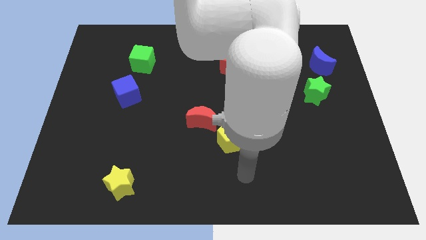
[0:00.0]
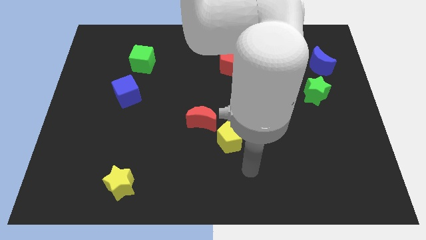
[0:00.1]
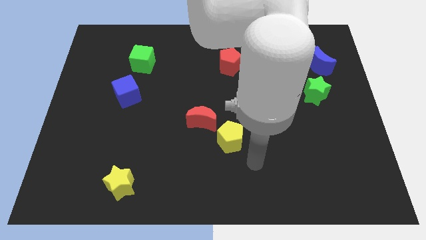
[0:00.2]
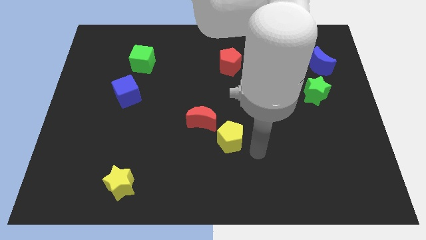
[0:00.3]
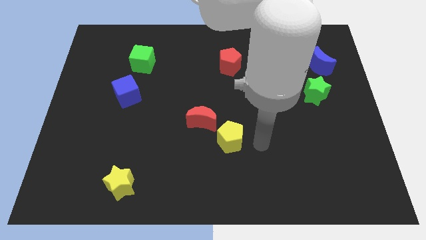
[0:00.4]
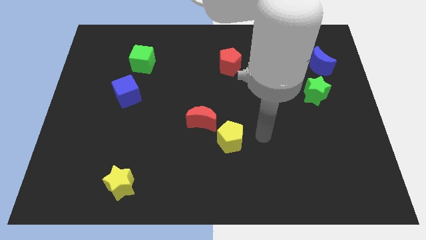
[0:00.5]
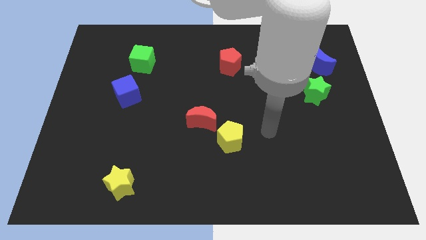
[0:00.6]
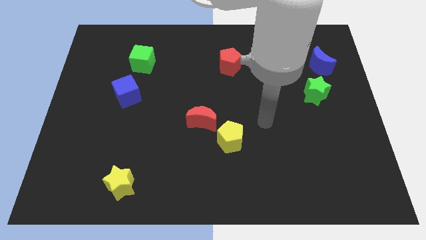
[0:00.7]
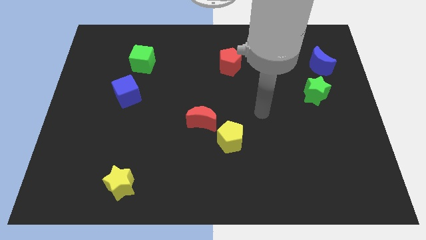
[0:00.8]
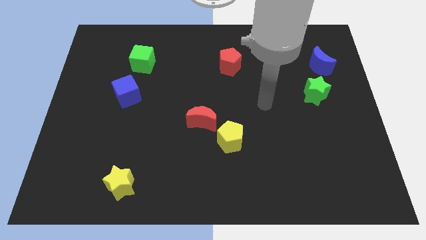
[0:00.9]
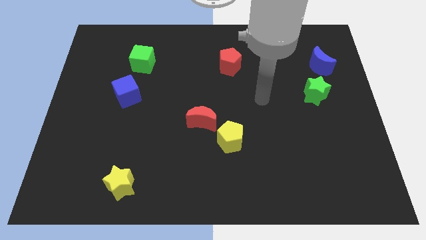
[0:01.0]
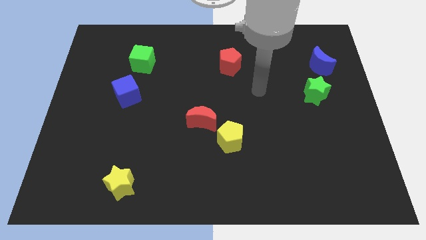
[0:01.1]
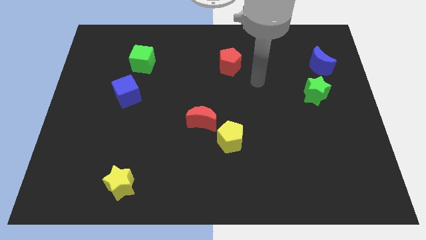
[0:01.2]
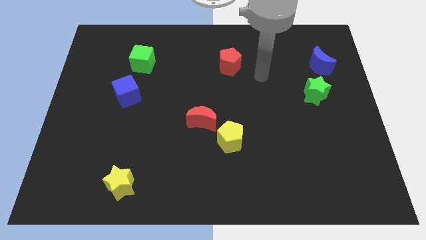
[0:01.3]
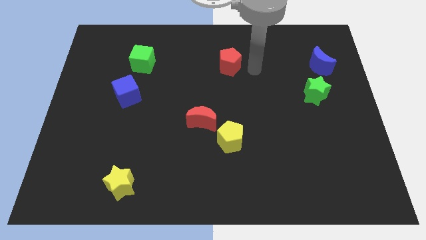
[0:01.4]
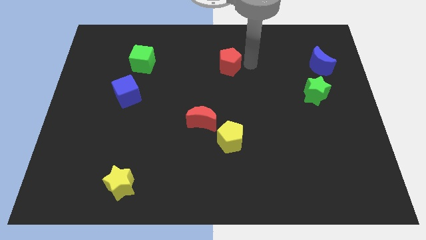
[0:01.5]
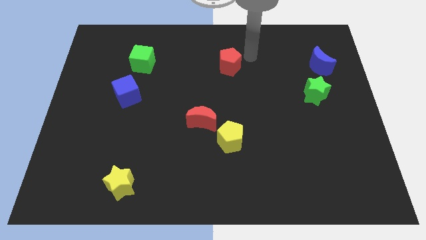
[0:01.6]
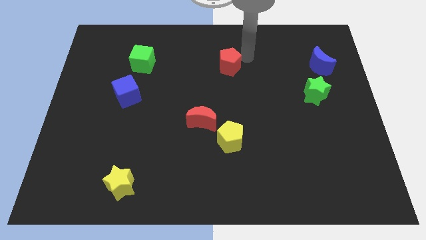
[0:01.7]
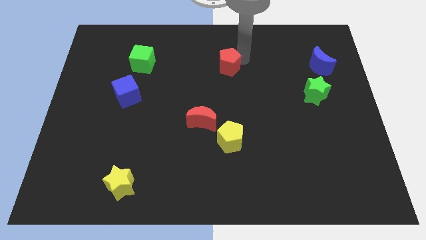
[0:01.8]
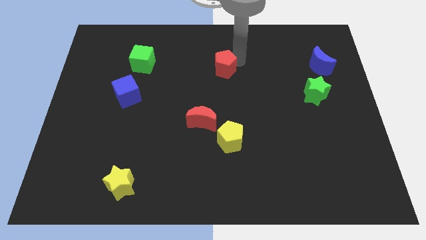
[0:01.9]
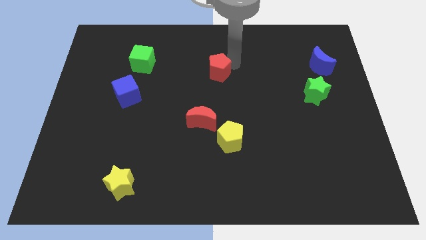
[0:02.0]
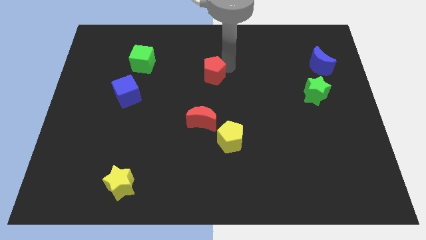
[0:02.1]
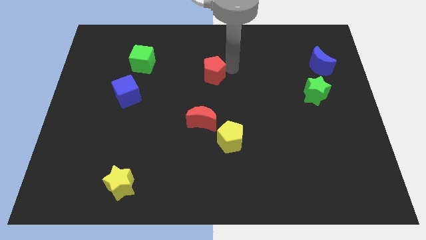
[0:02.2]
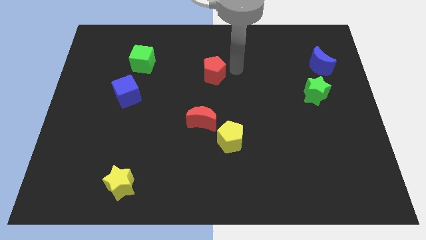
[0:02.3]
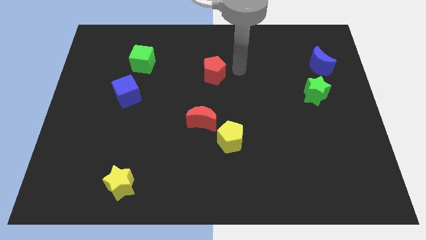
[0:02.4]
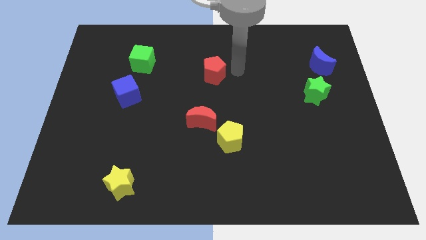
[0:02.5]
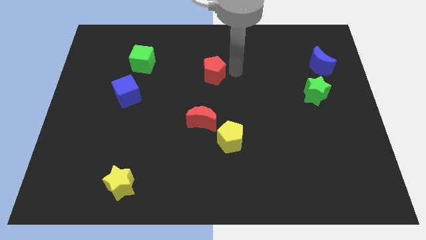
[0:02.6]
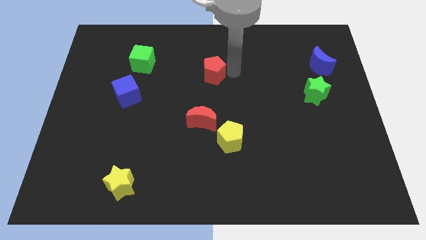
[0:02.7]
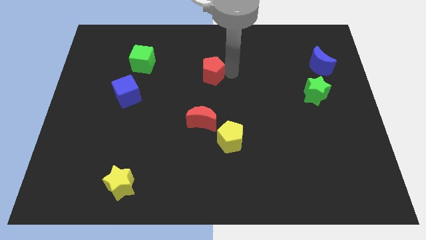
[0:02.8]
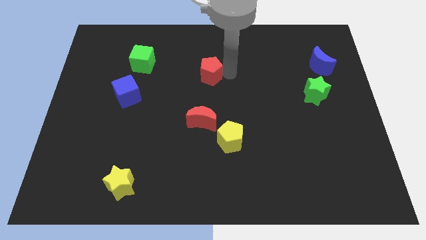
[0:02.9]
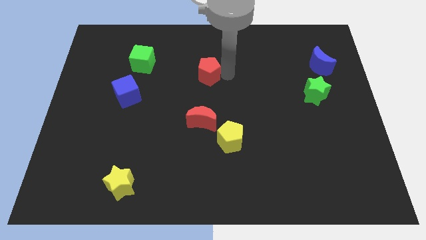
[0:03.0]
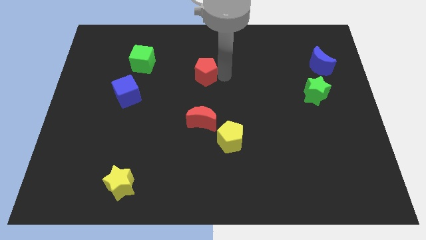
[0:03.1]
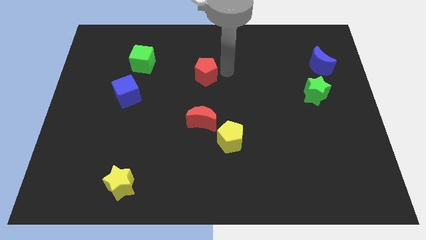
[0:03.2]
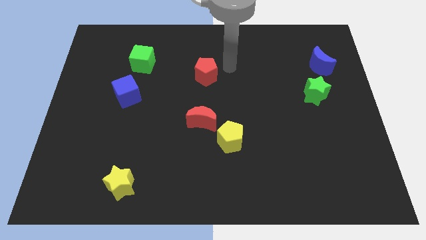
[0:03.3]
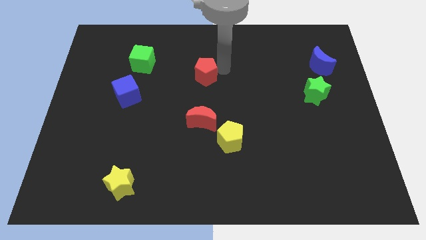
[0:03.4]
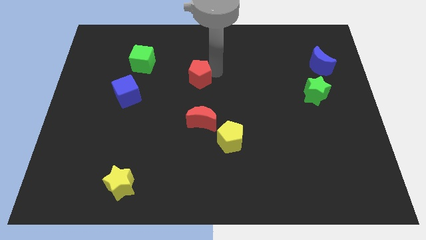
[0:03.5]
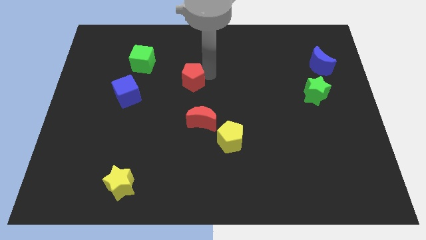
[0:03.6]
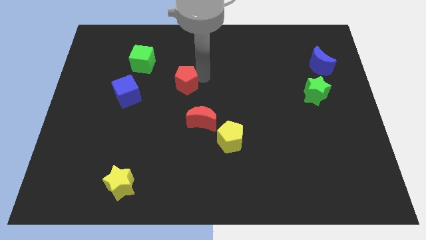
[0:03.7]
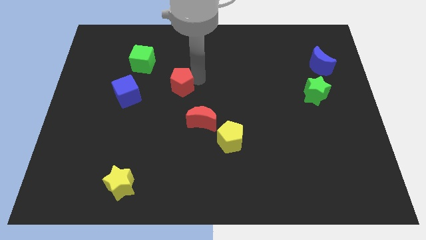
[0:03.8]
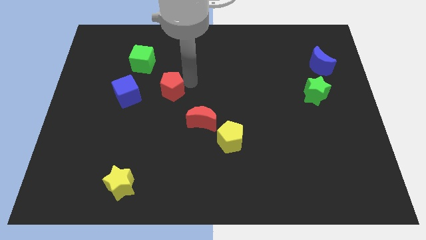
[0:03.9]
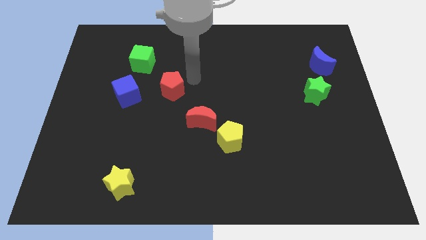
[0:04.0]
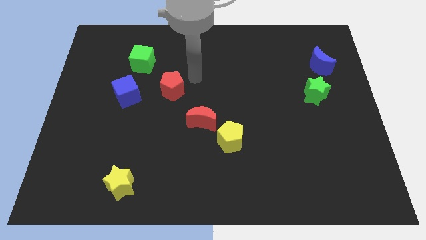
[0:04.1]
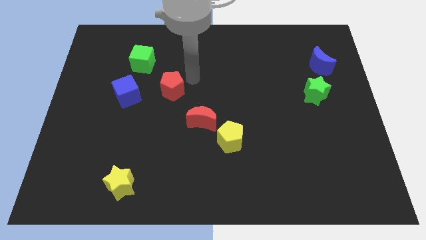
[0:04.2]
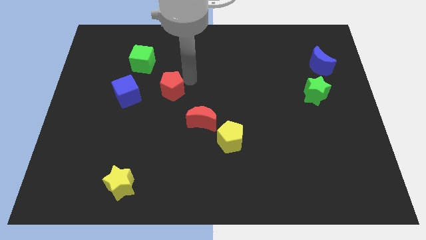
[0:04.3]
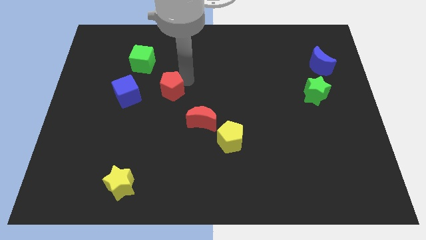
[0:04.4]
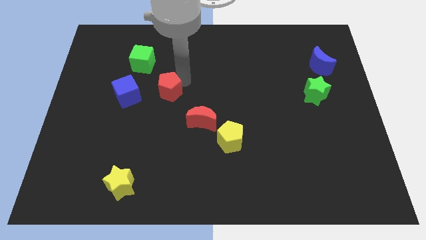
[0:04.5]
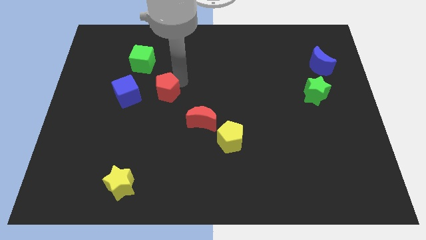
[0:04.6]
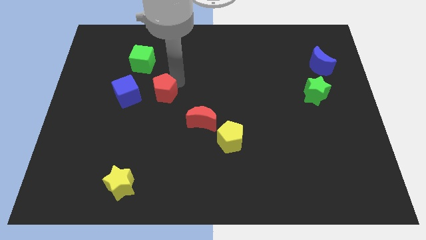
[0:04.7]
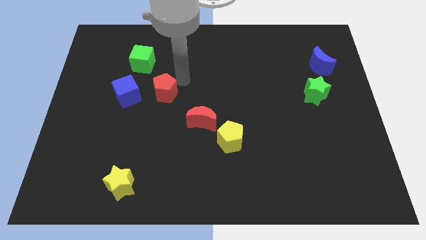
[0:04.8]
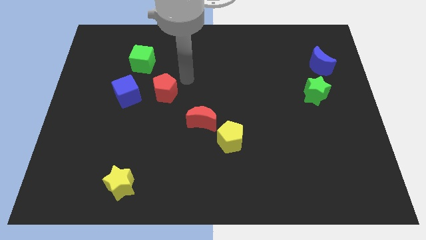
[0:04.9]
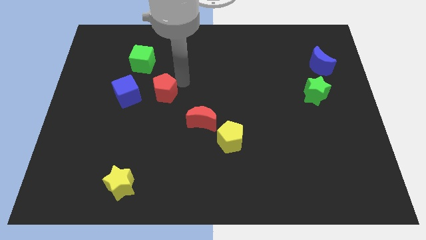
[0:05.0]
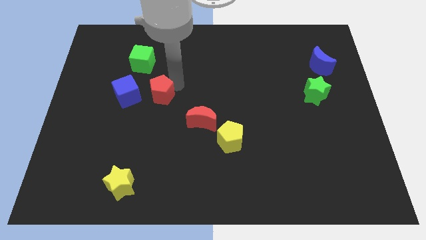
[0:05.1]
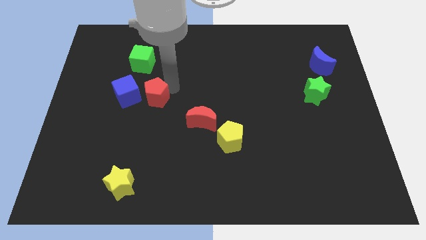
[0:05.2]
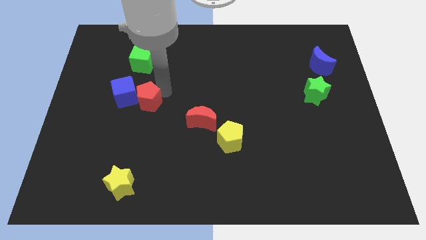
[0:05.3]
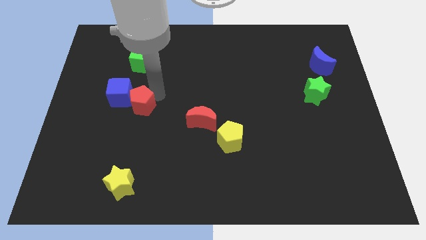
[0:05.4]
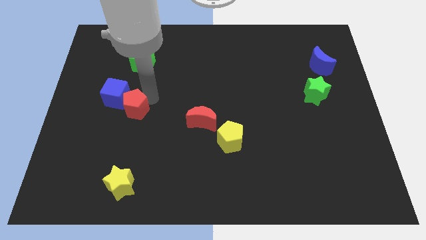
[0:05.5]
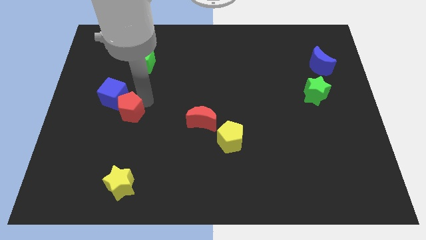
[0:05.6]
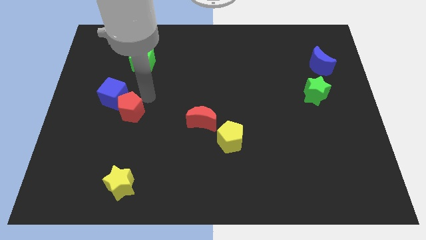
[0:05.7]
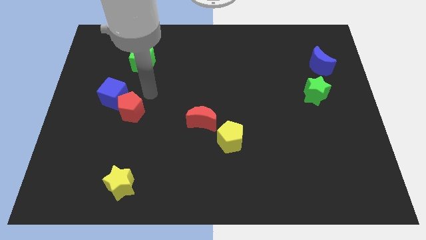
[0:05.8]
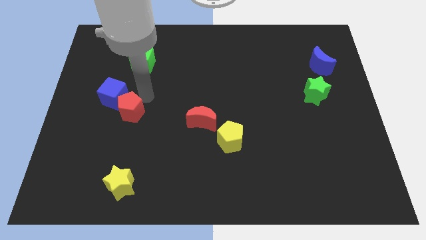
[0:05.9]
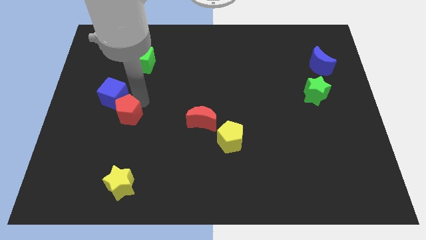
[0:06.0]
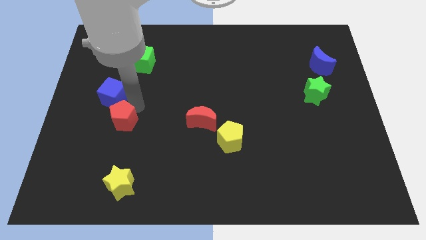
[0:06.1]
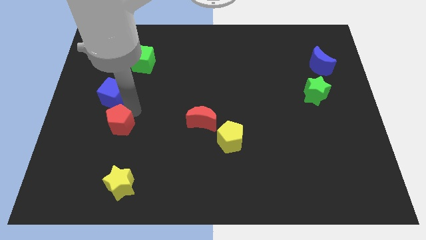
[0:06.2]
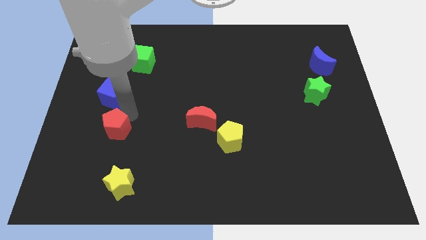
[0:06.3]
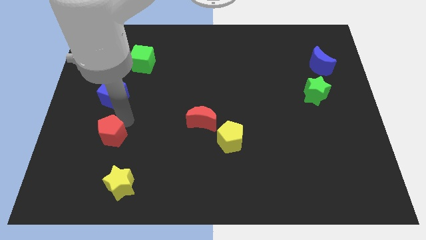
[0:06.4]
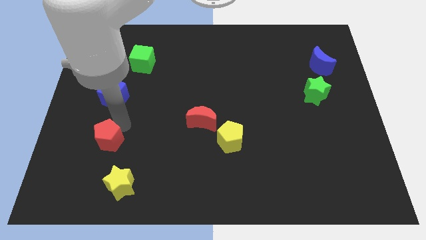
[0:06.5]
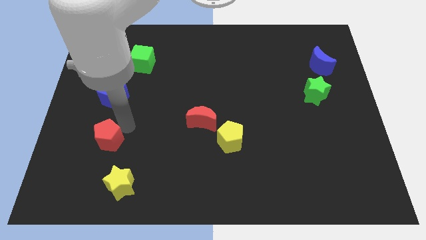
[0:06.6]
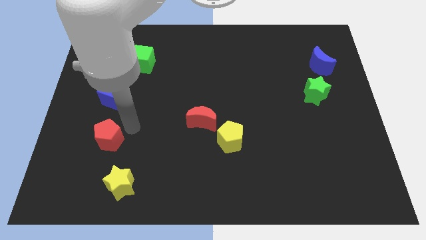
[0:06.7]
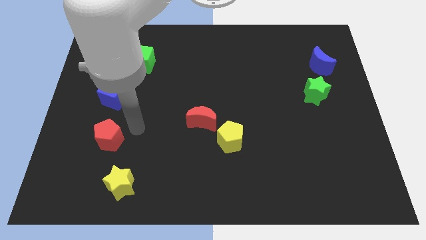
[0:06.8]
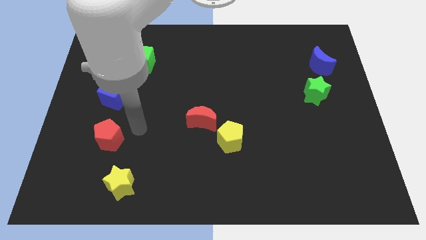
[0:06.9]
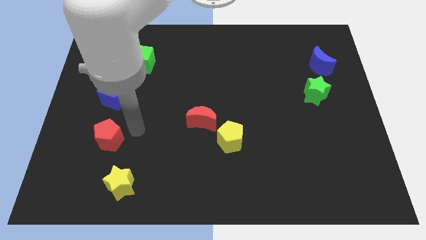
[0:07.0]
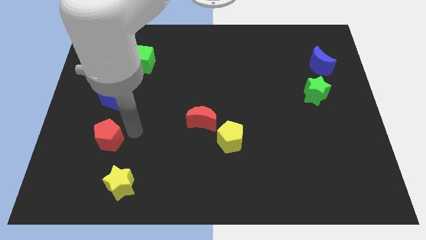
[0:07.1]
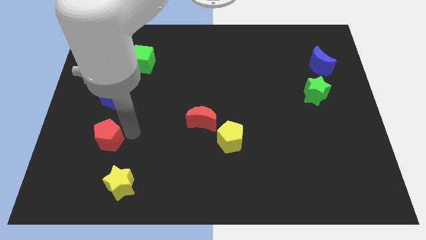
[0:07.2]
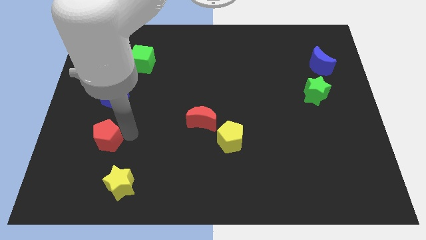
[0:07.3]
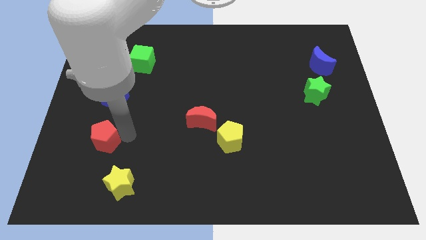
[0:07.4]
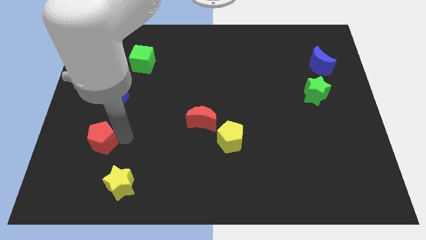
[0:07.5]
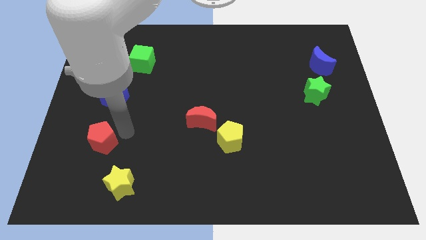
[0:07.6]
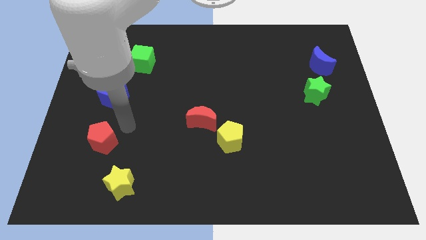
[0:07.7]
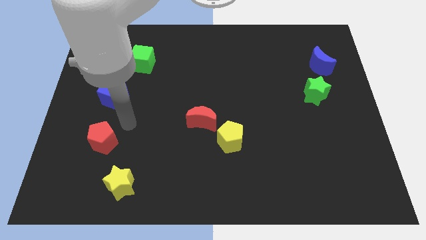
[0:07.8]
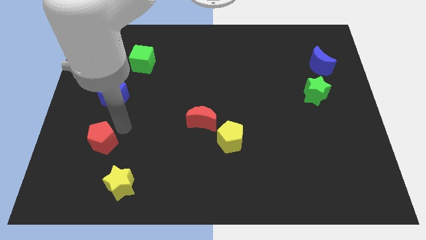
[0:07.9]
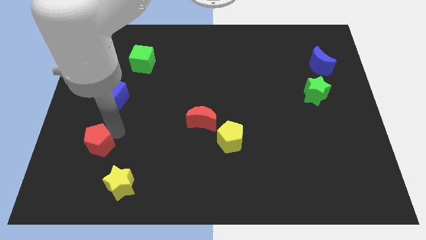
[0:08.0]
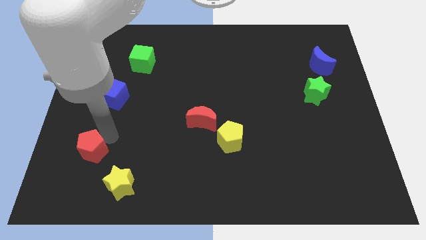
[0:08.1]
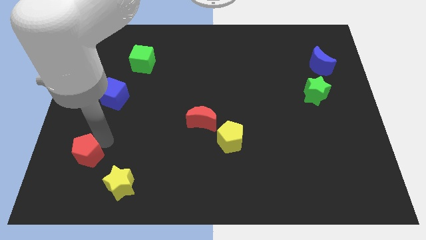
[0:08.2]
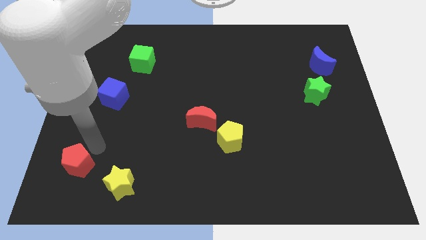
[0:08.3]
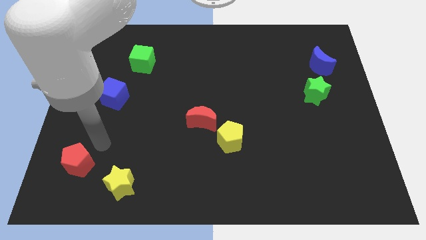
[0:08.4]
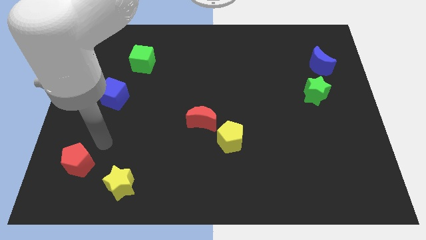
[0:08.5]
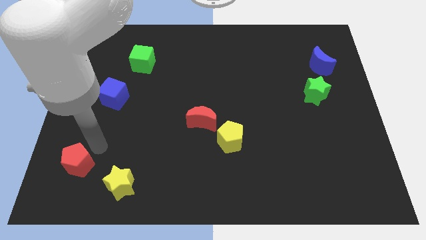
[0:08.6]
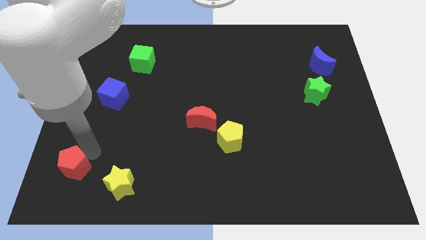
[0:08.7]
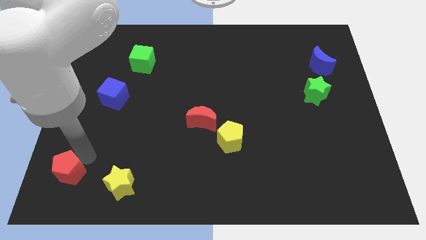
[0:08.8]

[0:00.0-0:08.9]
put the red pentagon to the bottom left
